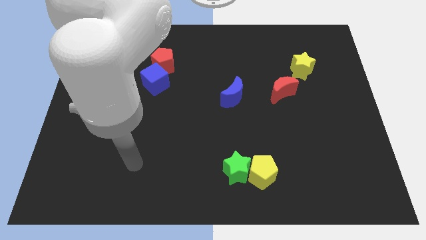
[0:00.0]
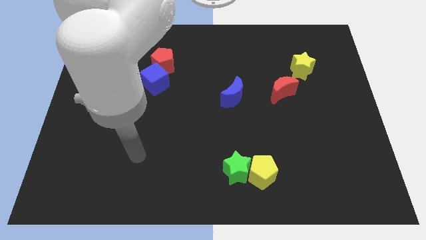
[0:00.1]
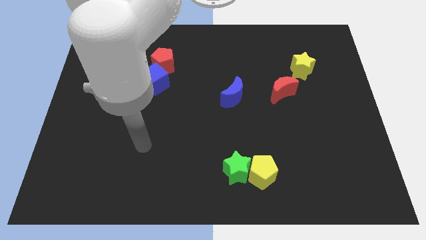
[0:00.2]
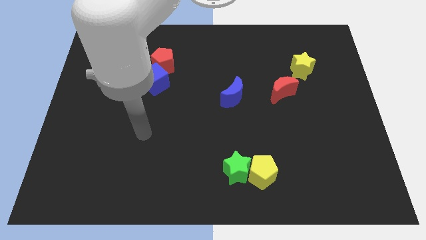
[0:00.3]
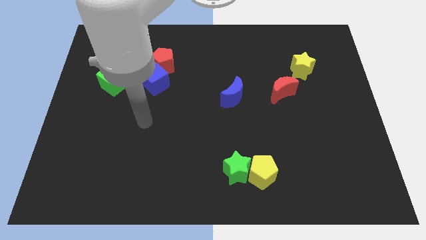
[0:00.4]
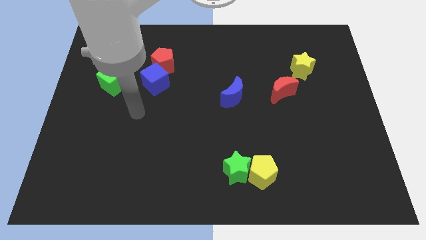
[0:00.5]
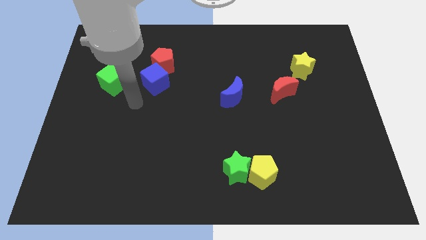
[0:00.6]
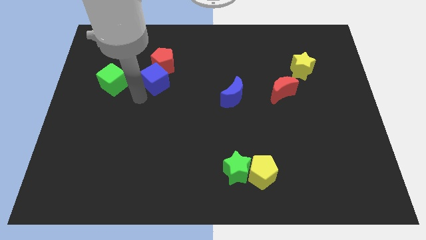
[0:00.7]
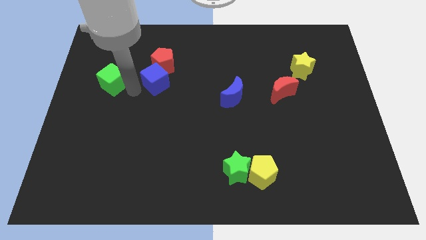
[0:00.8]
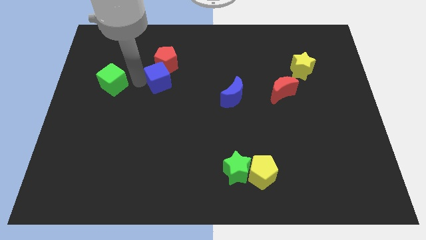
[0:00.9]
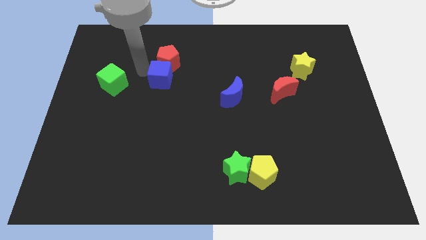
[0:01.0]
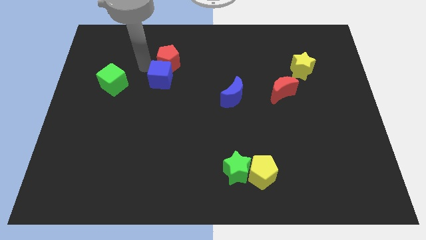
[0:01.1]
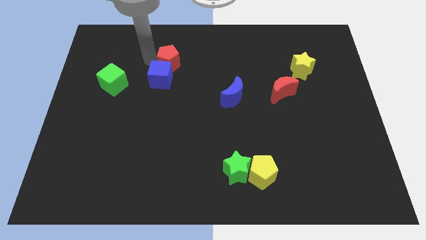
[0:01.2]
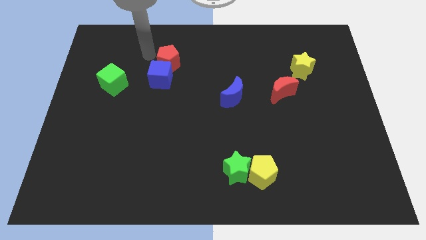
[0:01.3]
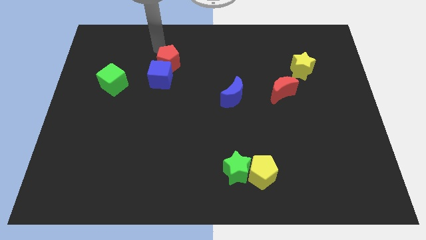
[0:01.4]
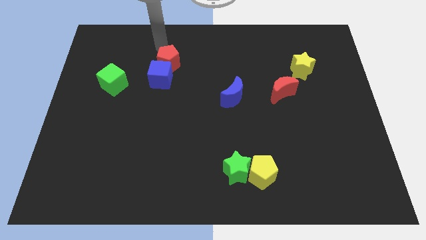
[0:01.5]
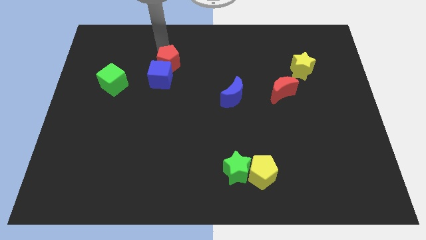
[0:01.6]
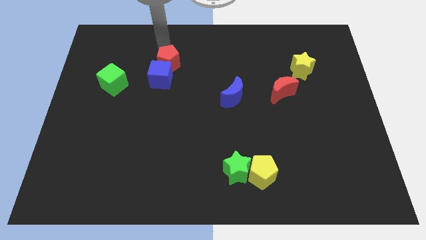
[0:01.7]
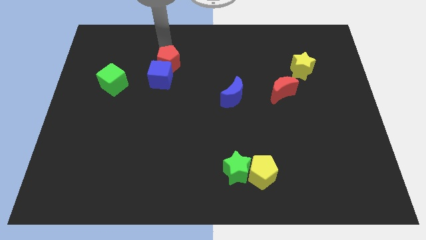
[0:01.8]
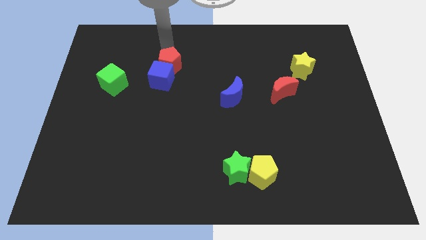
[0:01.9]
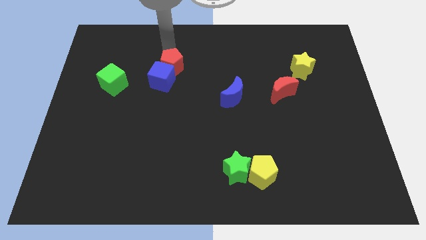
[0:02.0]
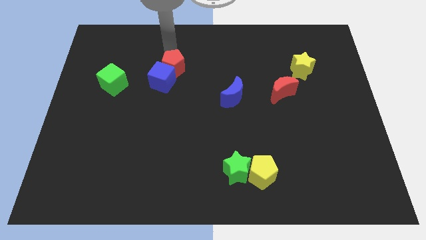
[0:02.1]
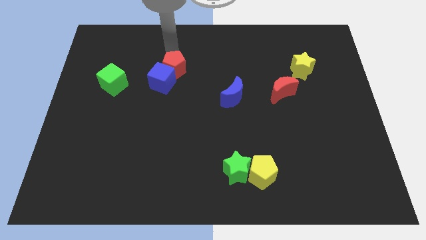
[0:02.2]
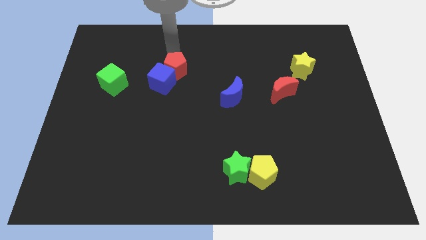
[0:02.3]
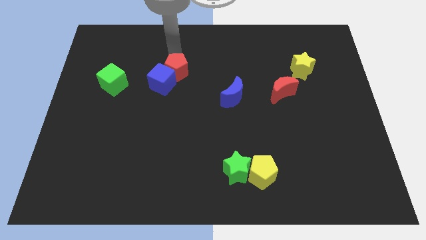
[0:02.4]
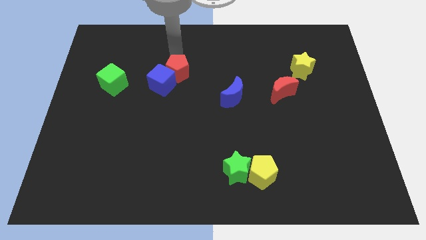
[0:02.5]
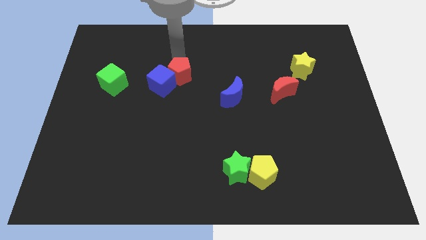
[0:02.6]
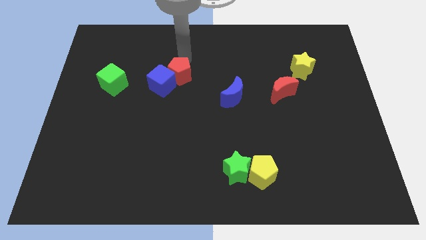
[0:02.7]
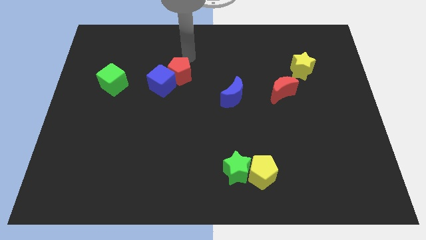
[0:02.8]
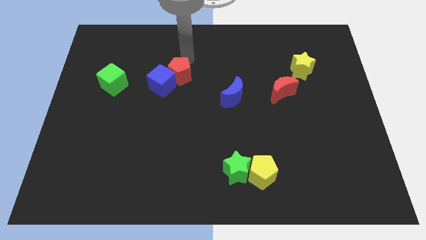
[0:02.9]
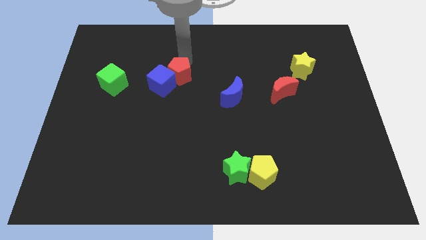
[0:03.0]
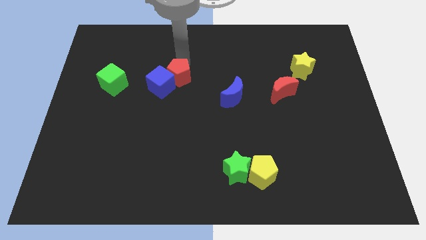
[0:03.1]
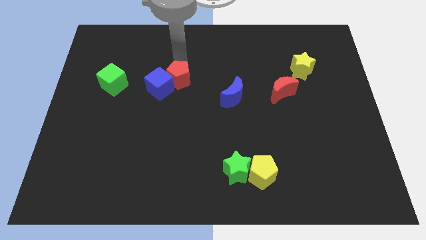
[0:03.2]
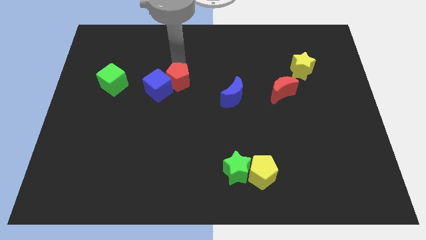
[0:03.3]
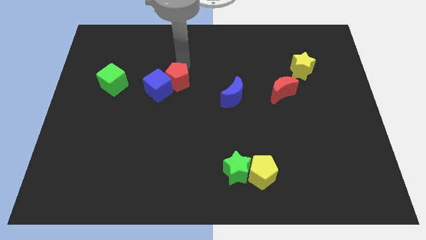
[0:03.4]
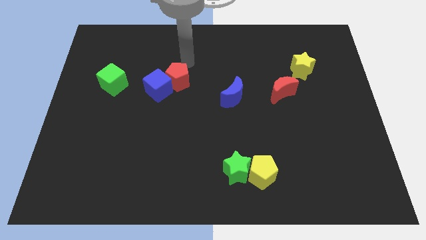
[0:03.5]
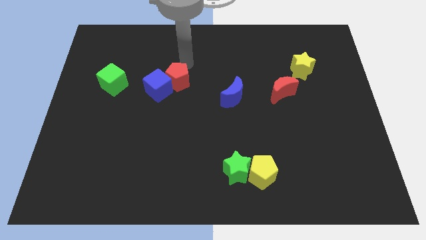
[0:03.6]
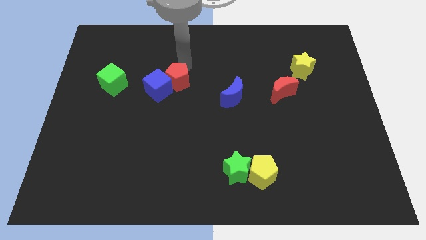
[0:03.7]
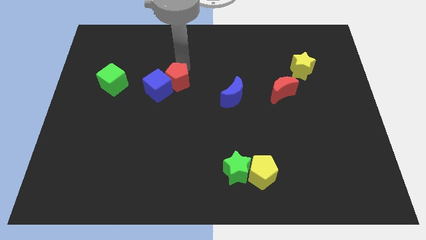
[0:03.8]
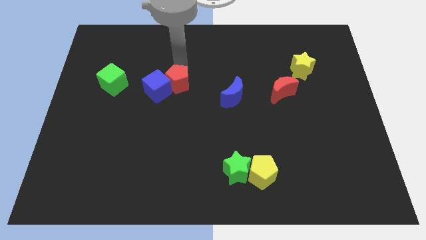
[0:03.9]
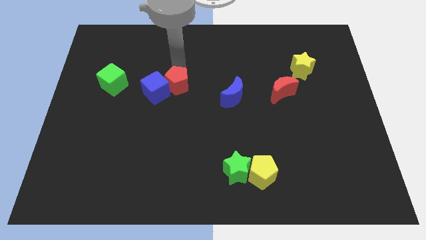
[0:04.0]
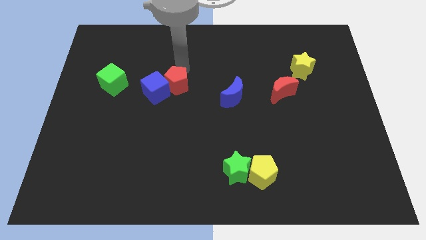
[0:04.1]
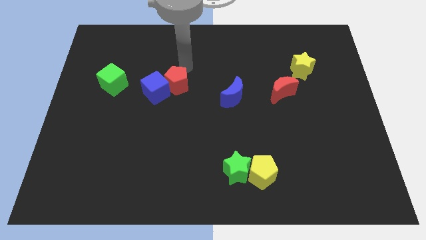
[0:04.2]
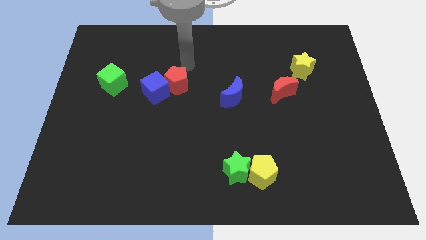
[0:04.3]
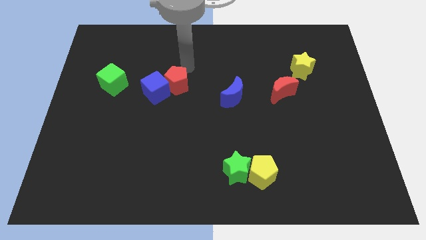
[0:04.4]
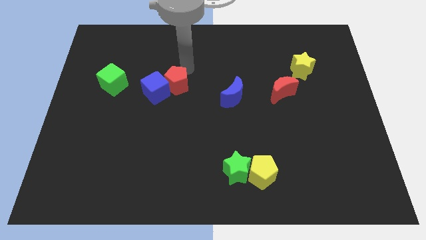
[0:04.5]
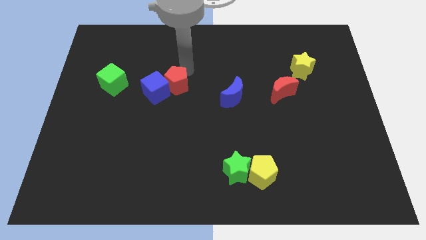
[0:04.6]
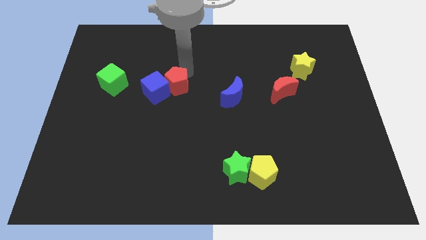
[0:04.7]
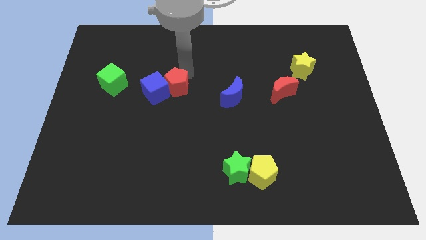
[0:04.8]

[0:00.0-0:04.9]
move the red pentagon somewhat downwards

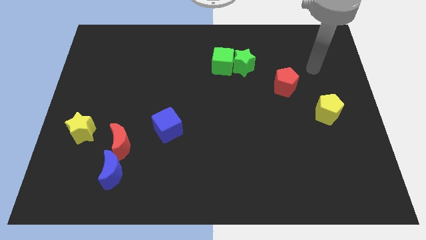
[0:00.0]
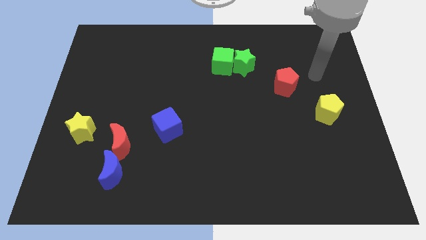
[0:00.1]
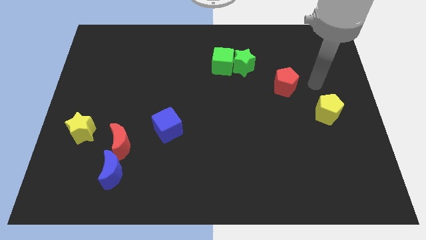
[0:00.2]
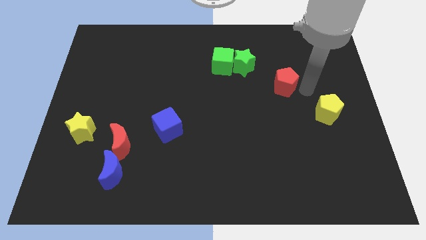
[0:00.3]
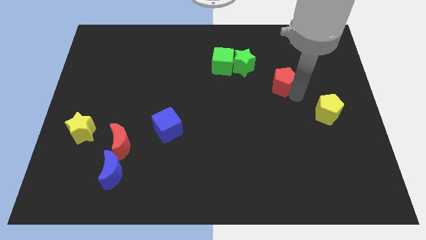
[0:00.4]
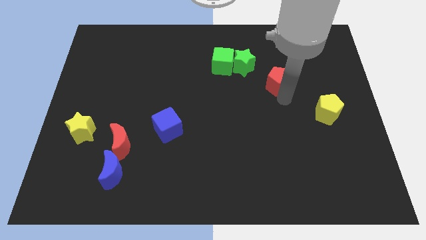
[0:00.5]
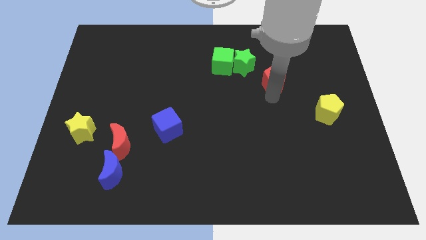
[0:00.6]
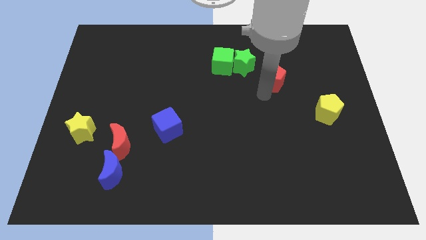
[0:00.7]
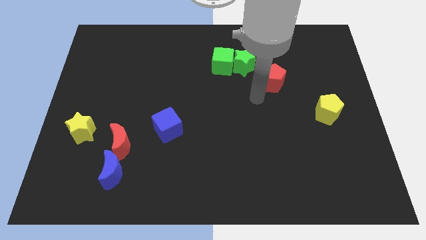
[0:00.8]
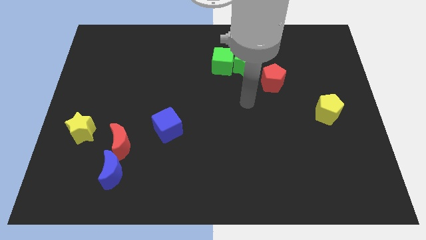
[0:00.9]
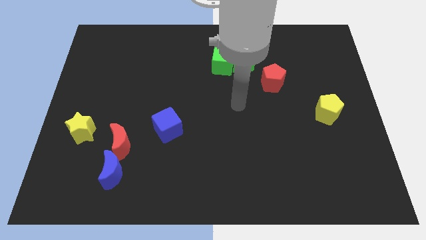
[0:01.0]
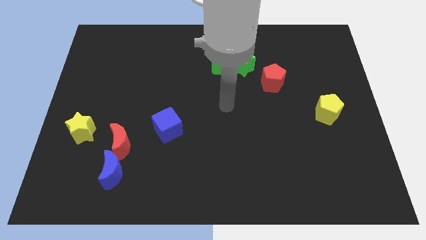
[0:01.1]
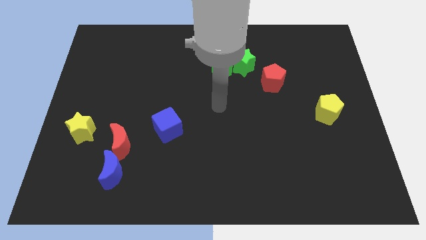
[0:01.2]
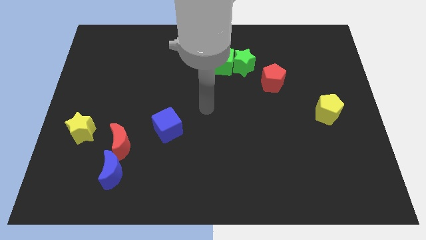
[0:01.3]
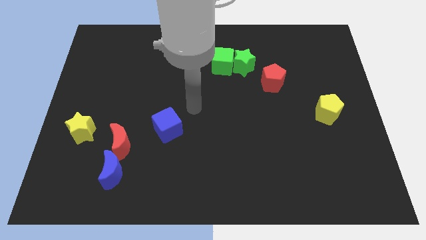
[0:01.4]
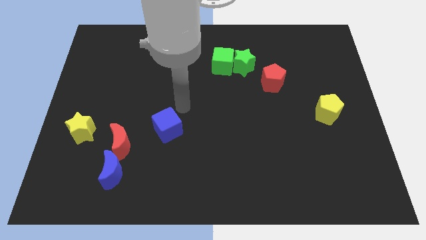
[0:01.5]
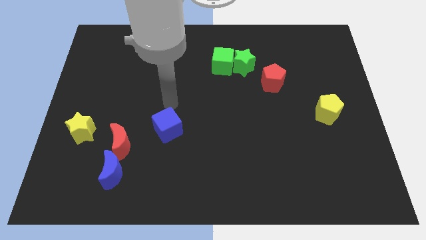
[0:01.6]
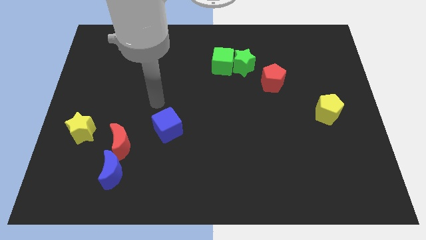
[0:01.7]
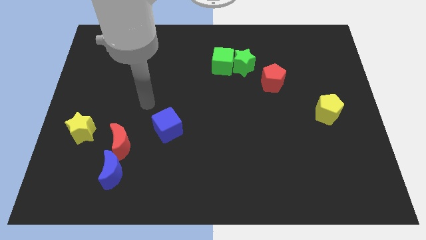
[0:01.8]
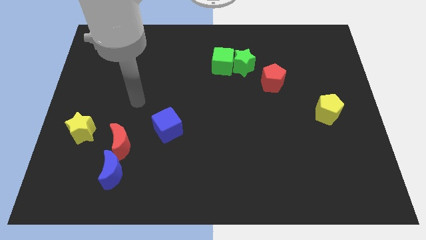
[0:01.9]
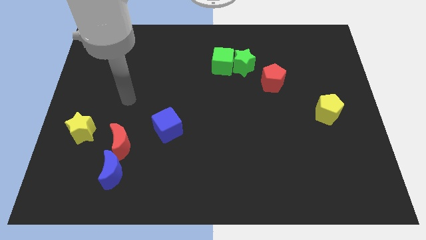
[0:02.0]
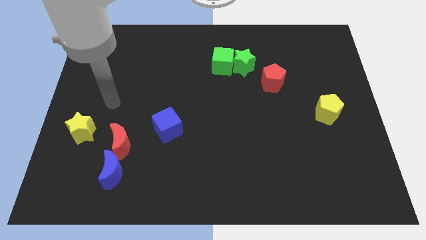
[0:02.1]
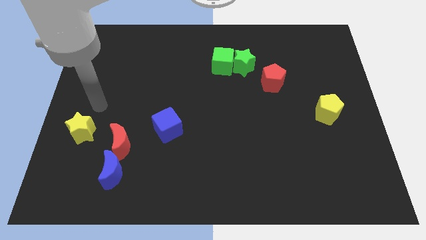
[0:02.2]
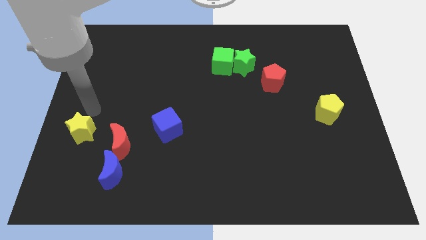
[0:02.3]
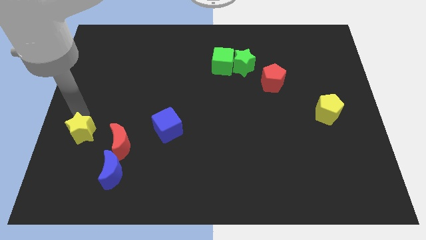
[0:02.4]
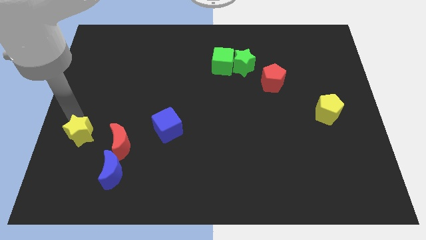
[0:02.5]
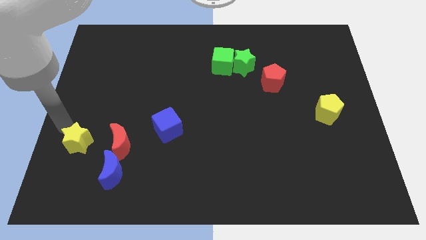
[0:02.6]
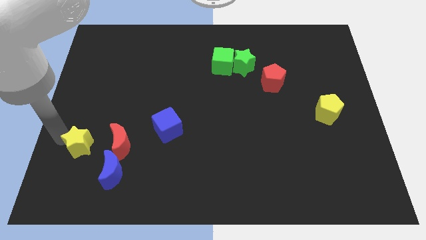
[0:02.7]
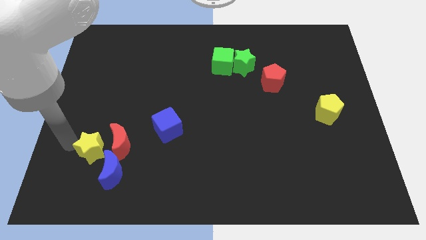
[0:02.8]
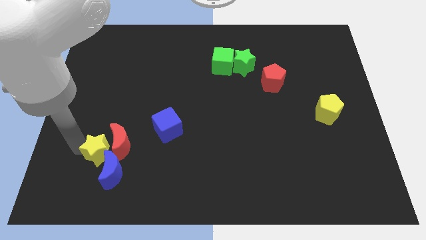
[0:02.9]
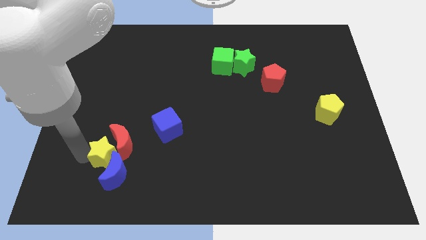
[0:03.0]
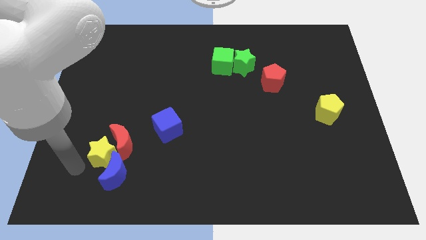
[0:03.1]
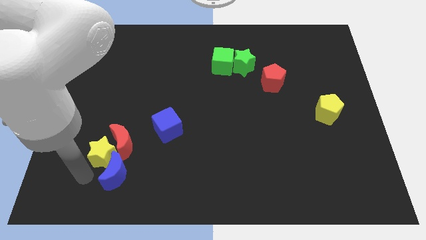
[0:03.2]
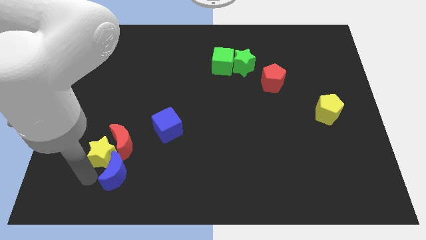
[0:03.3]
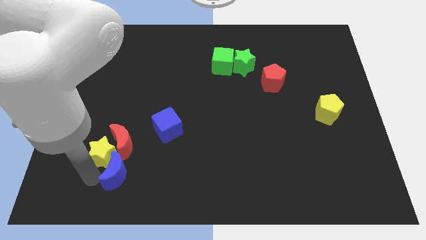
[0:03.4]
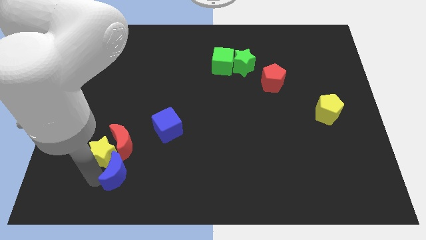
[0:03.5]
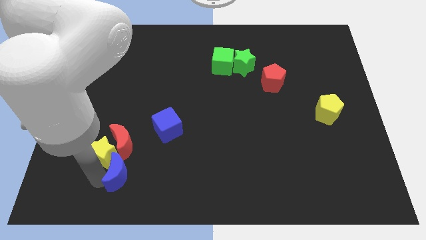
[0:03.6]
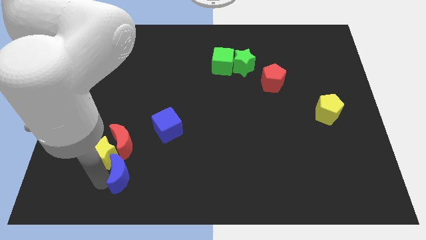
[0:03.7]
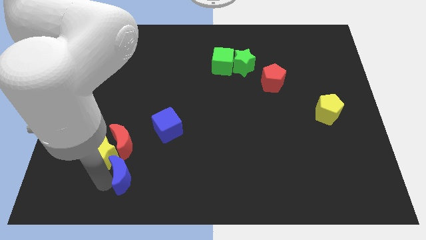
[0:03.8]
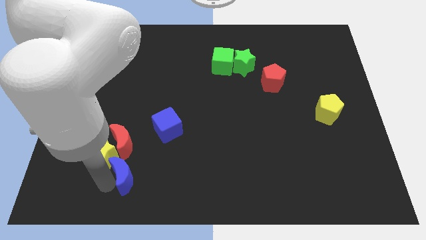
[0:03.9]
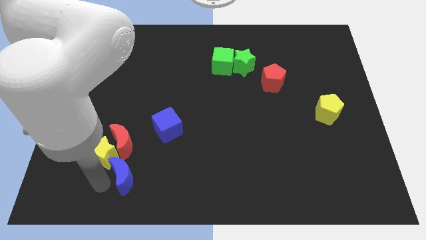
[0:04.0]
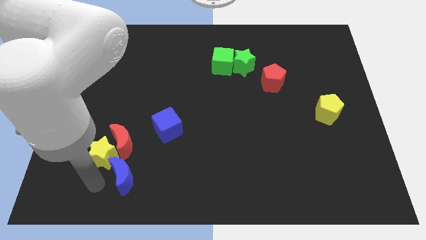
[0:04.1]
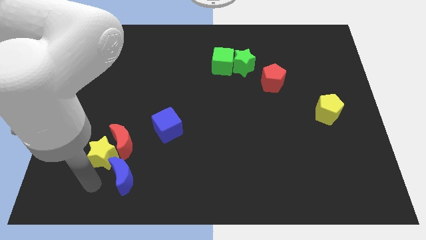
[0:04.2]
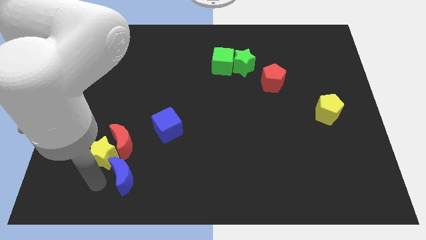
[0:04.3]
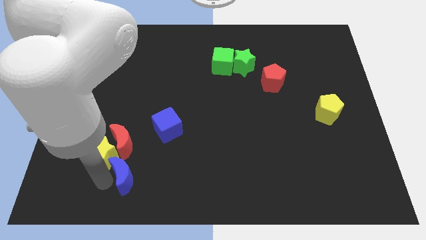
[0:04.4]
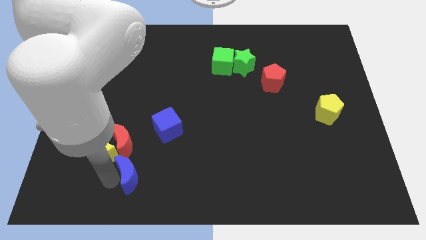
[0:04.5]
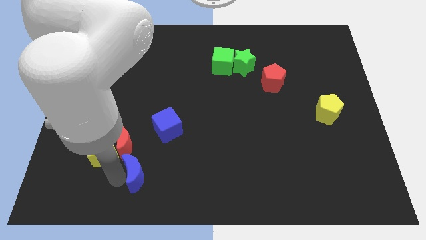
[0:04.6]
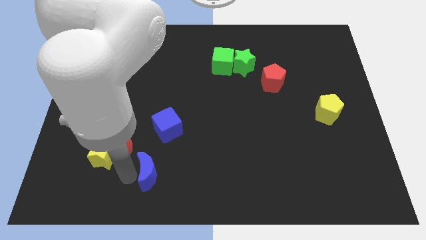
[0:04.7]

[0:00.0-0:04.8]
slightly slide the blue moon to the right
